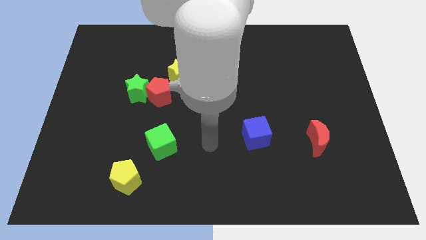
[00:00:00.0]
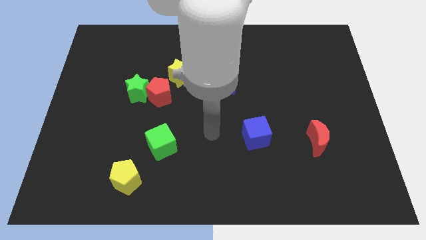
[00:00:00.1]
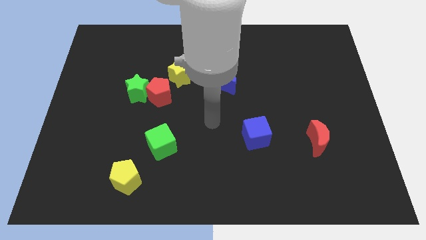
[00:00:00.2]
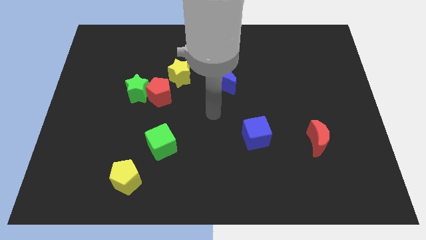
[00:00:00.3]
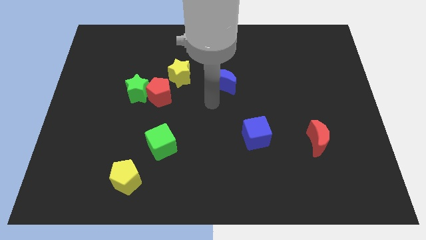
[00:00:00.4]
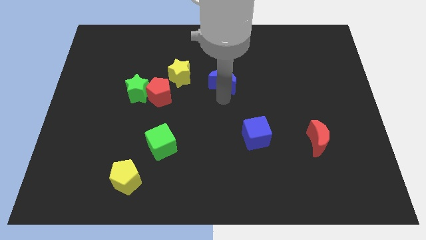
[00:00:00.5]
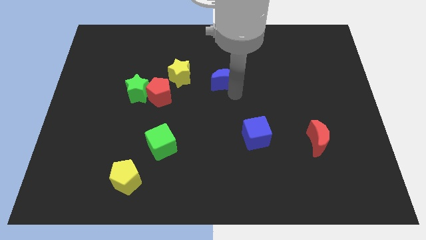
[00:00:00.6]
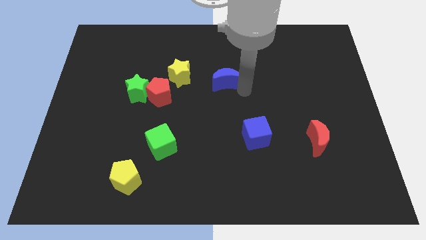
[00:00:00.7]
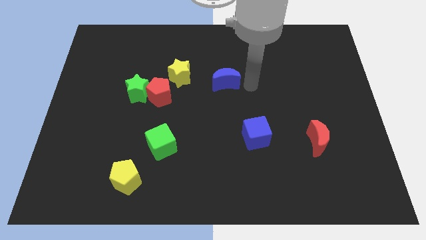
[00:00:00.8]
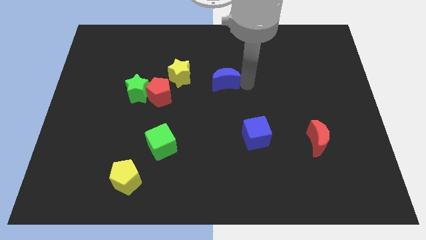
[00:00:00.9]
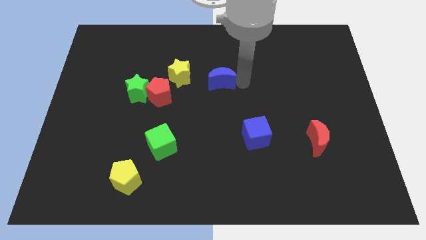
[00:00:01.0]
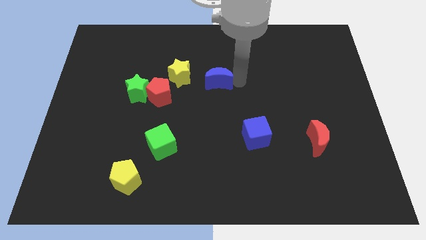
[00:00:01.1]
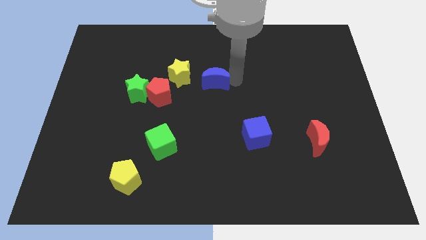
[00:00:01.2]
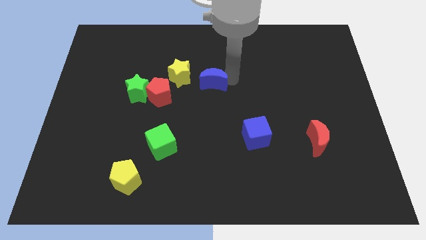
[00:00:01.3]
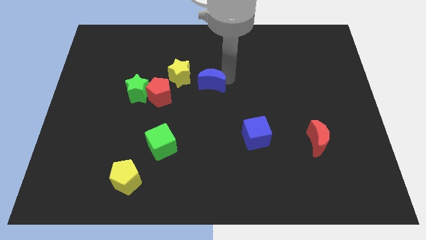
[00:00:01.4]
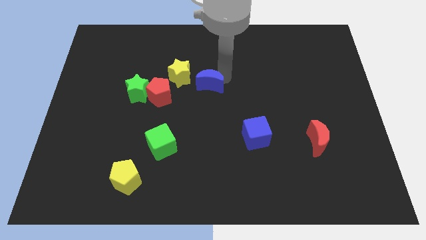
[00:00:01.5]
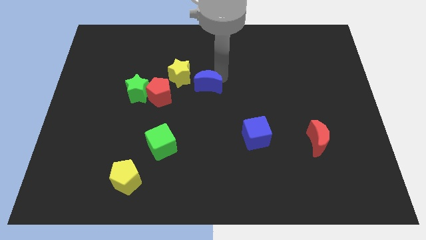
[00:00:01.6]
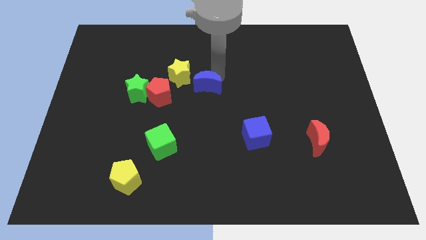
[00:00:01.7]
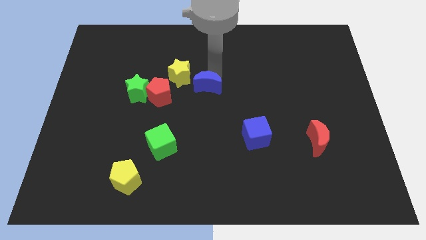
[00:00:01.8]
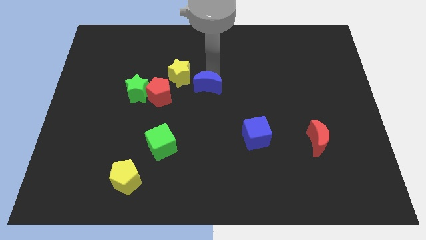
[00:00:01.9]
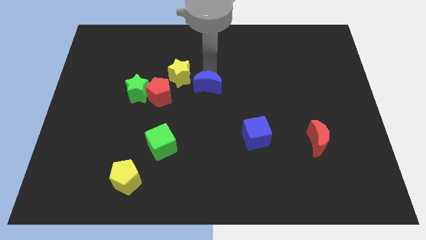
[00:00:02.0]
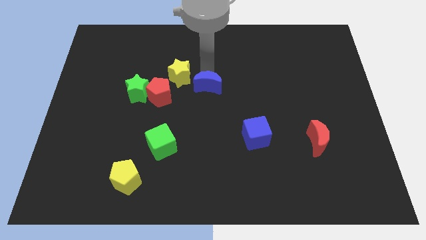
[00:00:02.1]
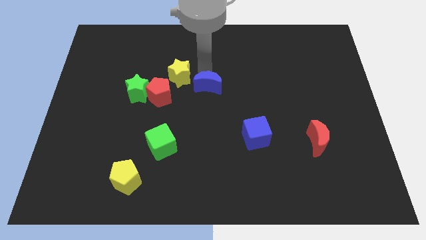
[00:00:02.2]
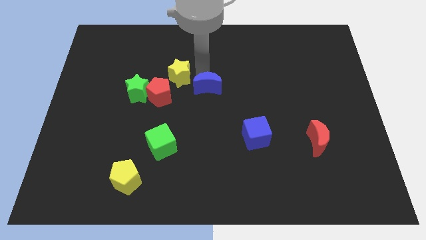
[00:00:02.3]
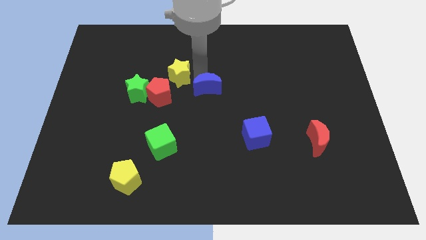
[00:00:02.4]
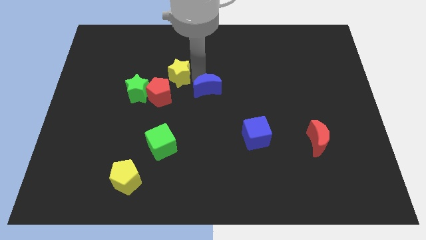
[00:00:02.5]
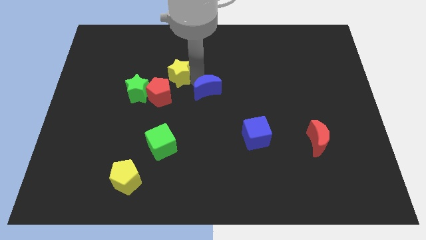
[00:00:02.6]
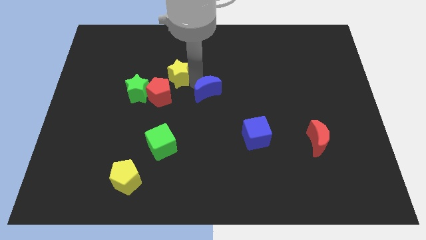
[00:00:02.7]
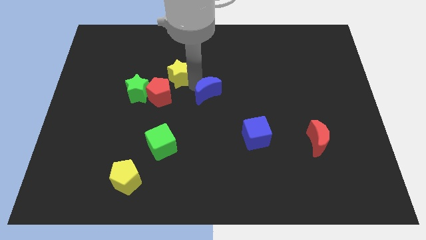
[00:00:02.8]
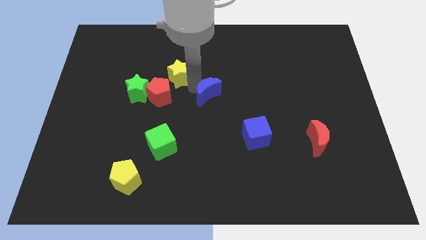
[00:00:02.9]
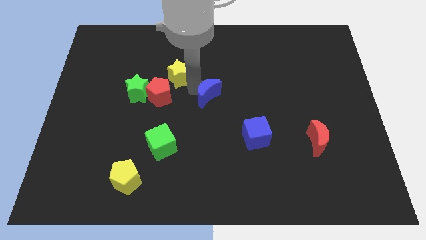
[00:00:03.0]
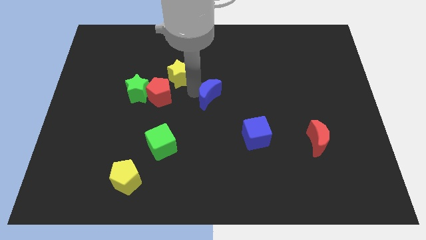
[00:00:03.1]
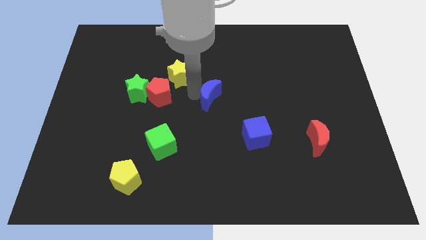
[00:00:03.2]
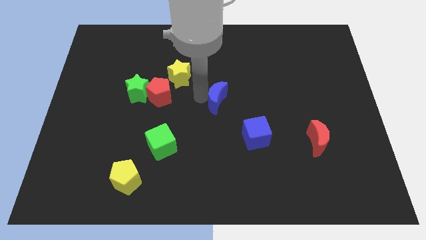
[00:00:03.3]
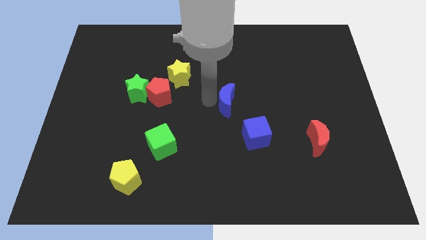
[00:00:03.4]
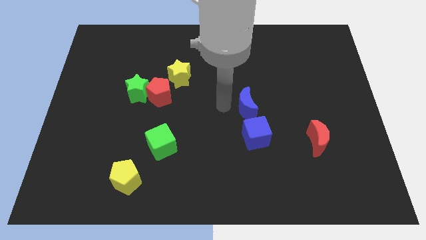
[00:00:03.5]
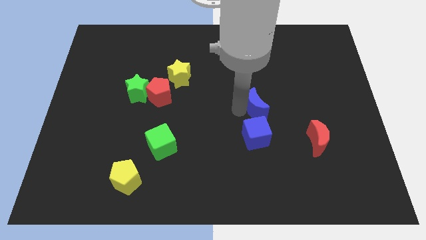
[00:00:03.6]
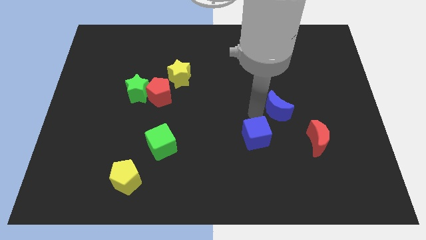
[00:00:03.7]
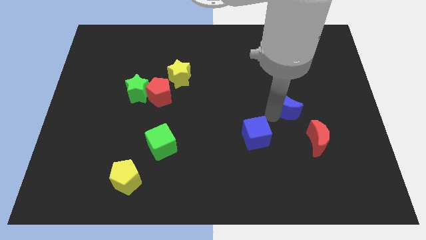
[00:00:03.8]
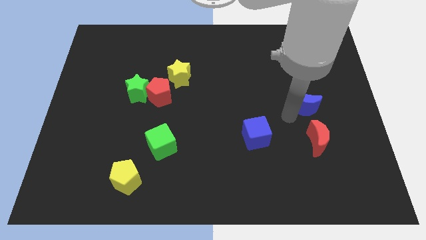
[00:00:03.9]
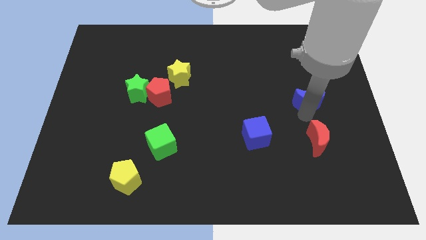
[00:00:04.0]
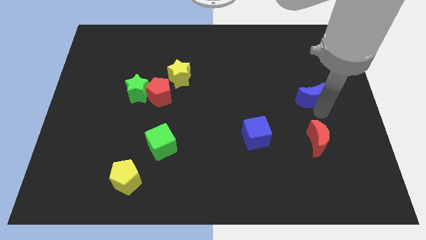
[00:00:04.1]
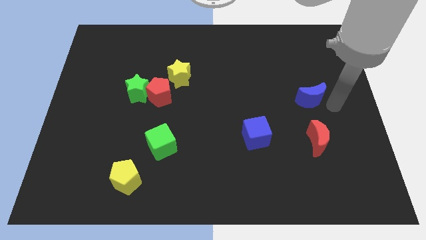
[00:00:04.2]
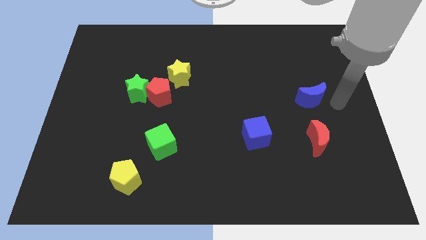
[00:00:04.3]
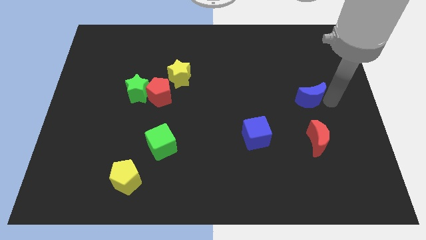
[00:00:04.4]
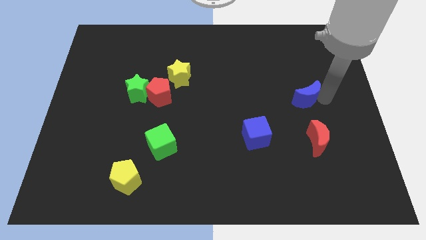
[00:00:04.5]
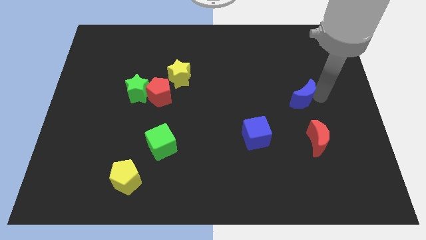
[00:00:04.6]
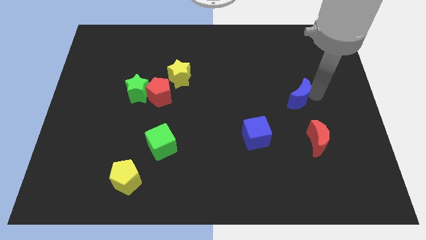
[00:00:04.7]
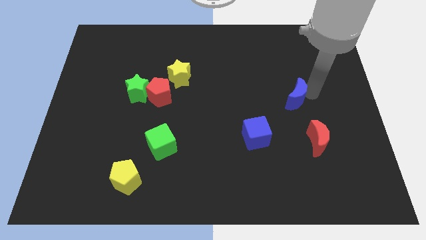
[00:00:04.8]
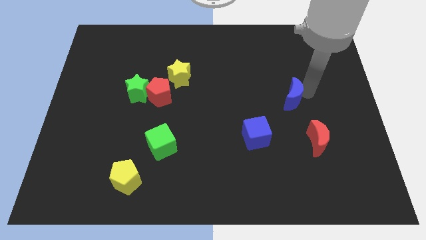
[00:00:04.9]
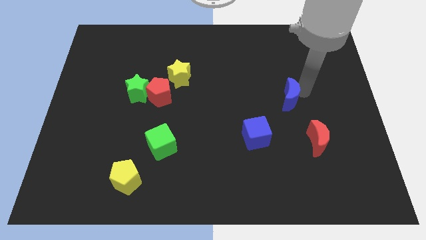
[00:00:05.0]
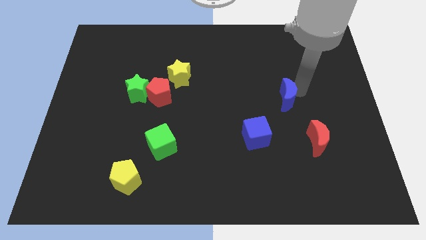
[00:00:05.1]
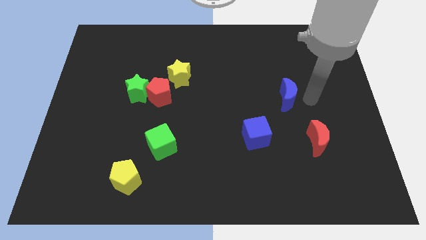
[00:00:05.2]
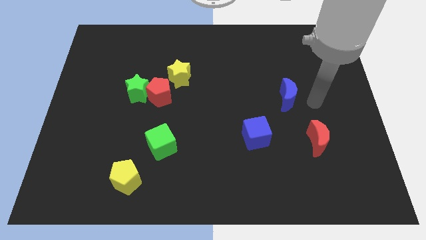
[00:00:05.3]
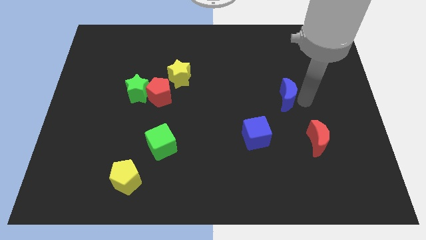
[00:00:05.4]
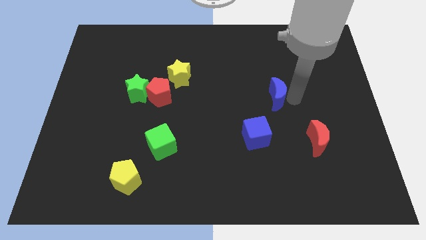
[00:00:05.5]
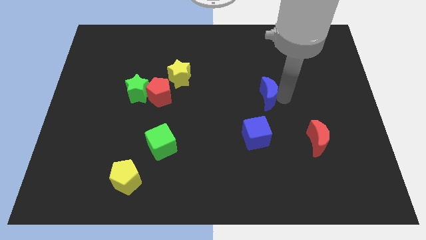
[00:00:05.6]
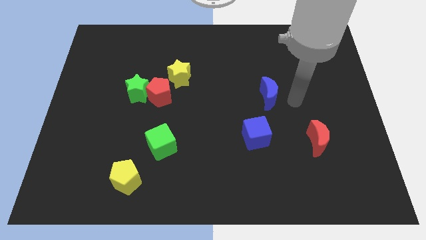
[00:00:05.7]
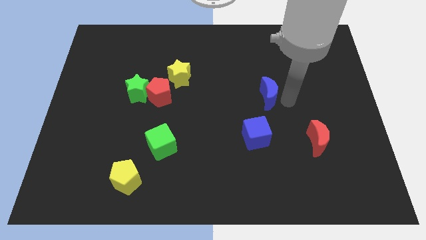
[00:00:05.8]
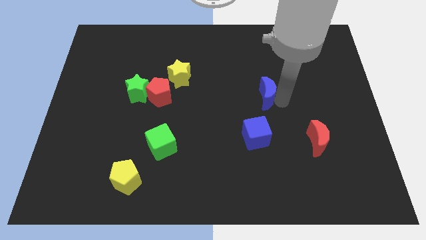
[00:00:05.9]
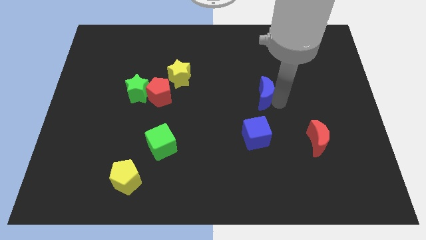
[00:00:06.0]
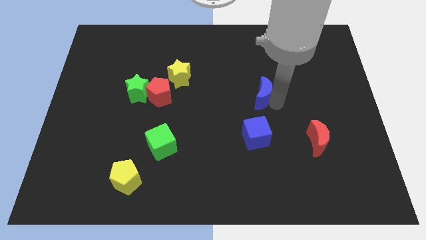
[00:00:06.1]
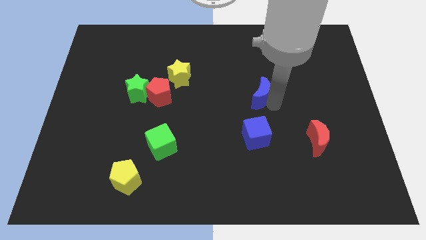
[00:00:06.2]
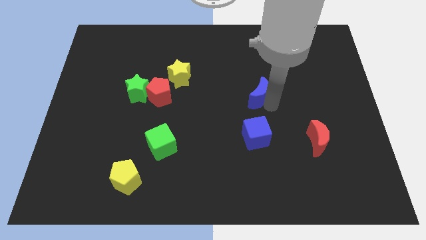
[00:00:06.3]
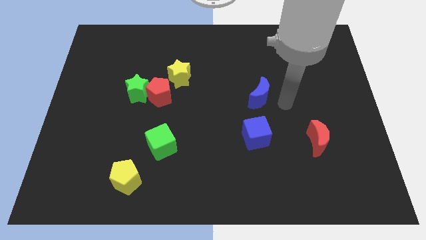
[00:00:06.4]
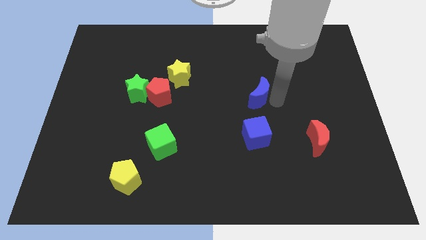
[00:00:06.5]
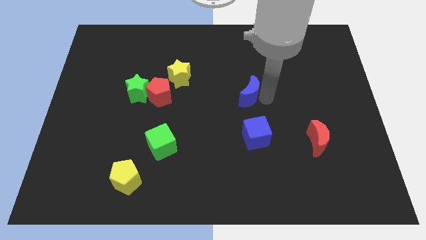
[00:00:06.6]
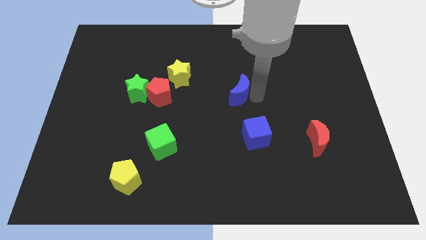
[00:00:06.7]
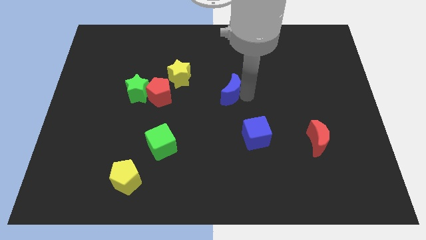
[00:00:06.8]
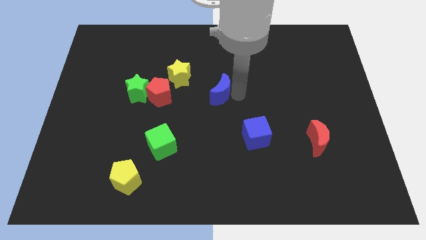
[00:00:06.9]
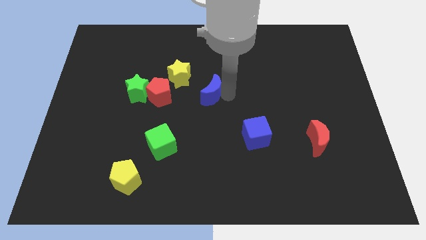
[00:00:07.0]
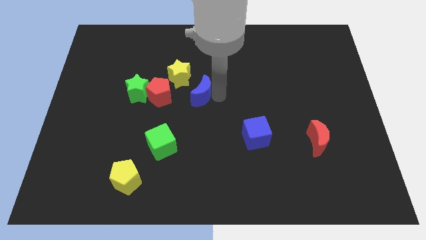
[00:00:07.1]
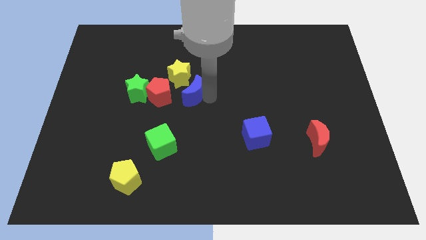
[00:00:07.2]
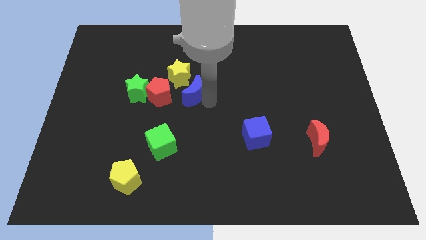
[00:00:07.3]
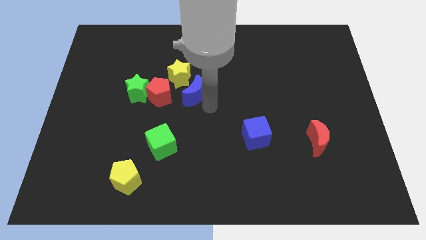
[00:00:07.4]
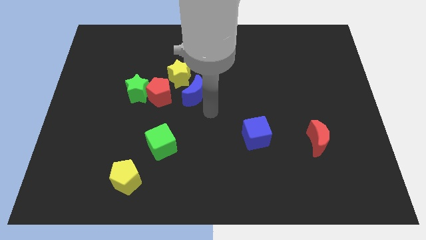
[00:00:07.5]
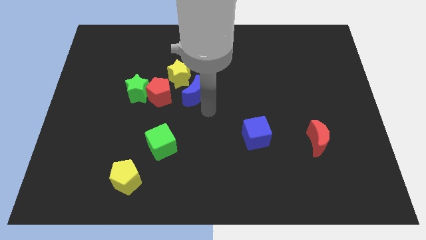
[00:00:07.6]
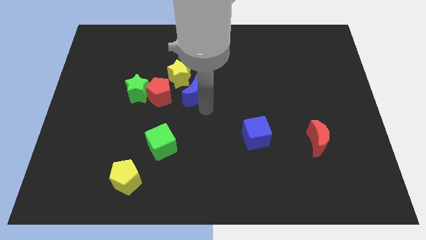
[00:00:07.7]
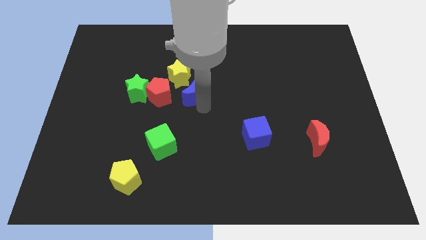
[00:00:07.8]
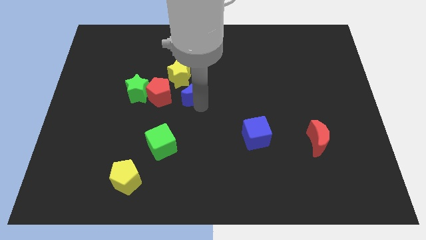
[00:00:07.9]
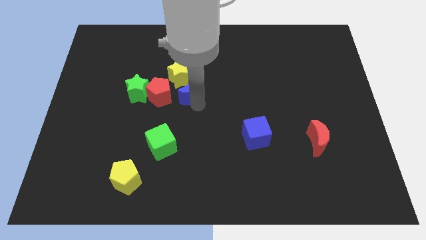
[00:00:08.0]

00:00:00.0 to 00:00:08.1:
put the blue moon towards the yellow star
